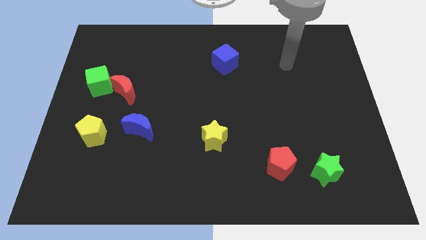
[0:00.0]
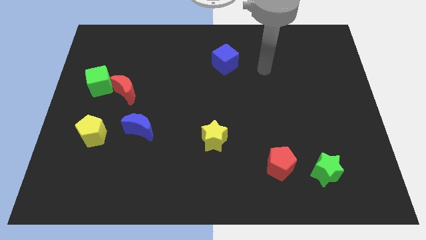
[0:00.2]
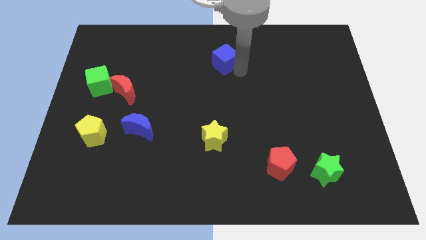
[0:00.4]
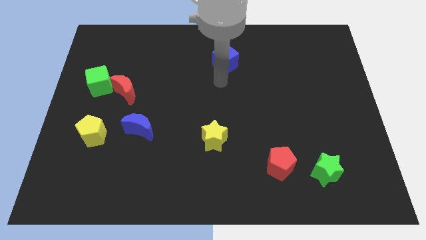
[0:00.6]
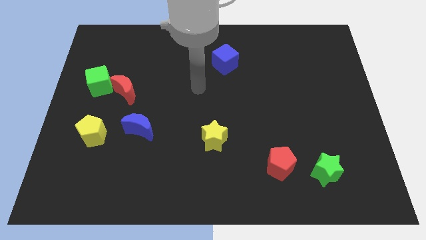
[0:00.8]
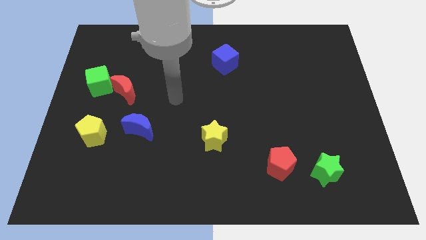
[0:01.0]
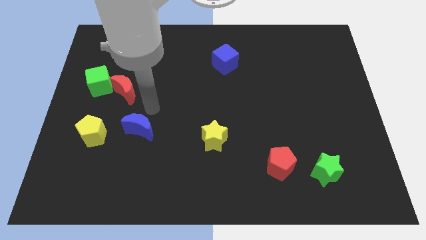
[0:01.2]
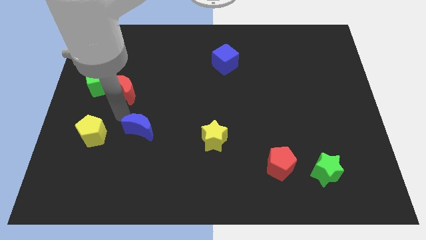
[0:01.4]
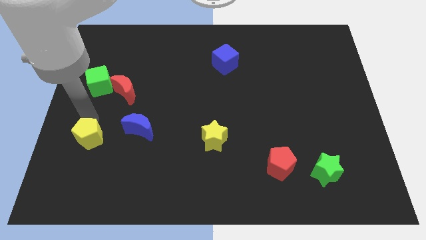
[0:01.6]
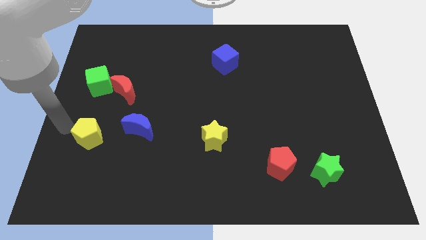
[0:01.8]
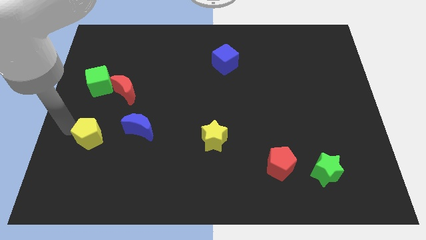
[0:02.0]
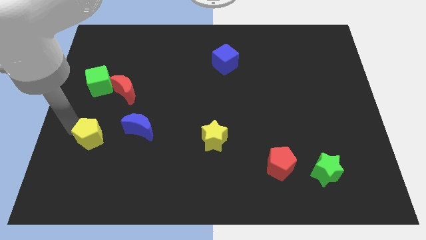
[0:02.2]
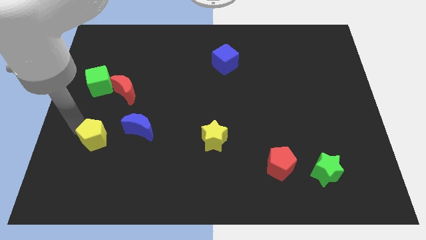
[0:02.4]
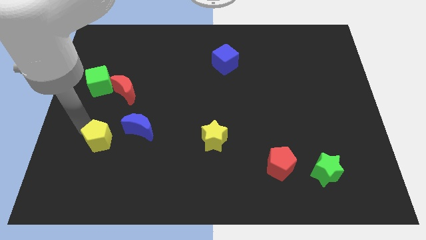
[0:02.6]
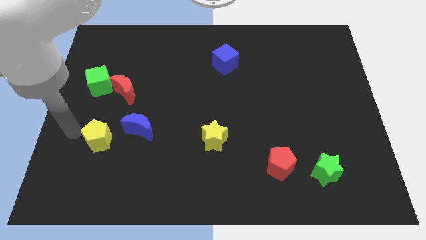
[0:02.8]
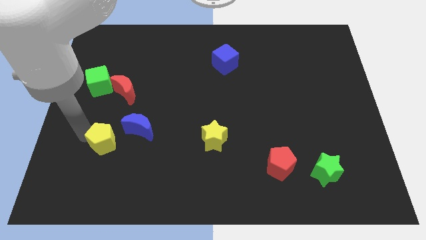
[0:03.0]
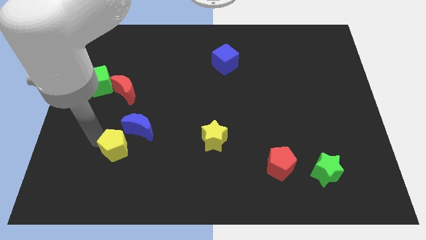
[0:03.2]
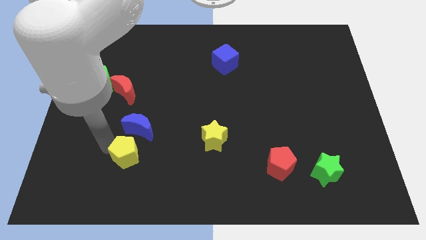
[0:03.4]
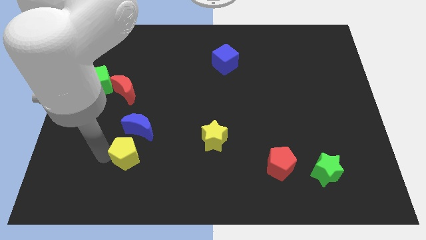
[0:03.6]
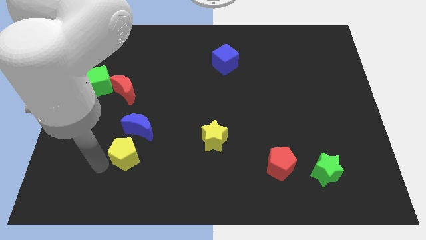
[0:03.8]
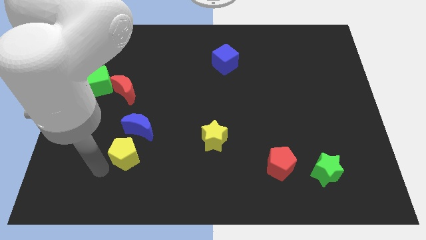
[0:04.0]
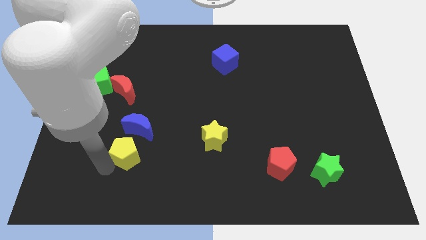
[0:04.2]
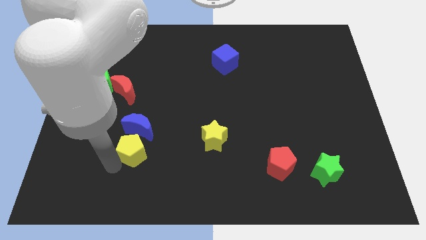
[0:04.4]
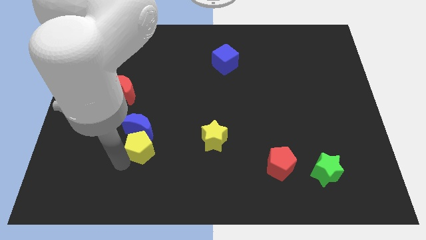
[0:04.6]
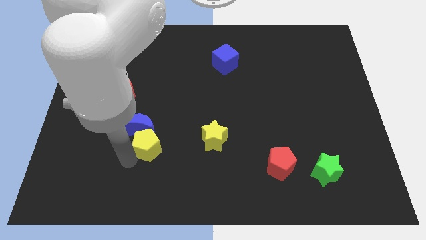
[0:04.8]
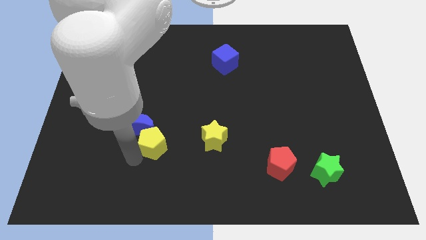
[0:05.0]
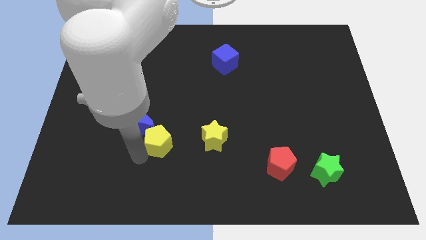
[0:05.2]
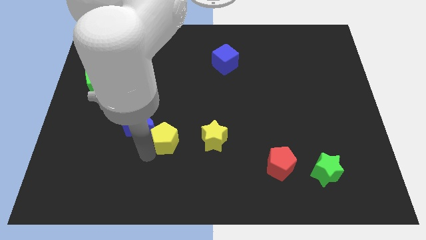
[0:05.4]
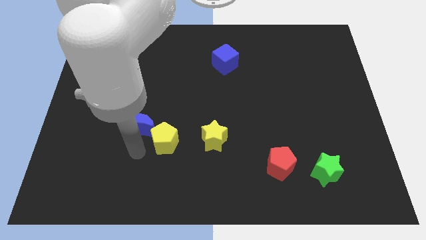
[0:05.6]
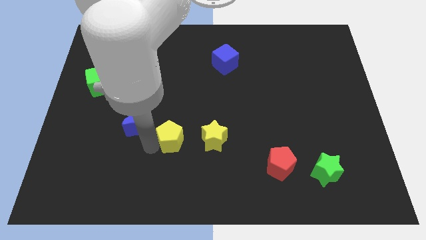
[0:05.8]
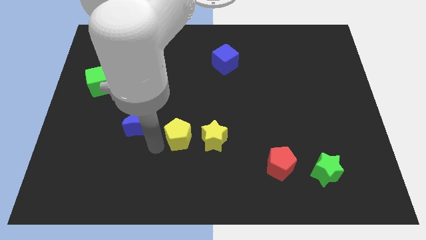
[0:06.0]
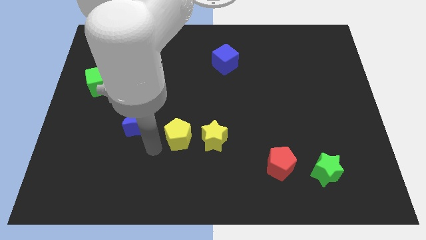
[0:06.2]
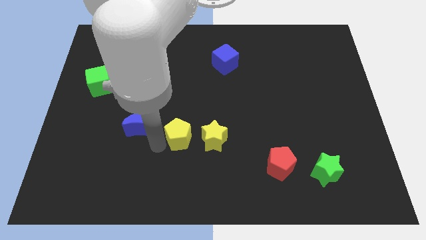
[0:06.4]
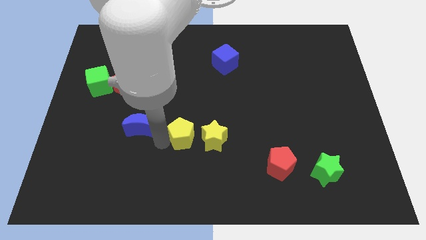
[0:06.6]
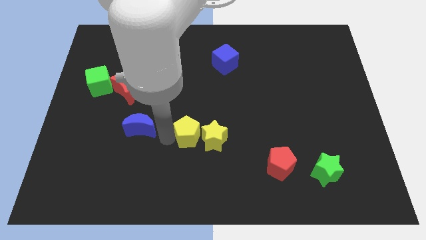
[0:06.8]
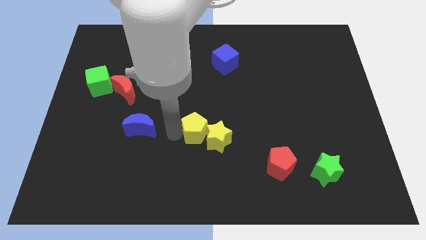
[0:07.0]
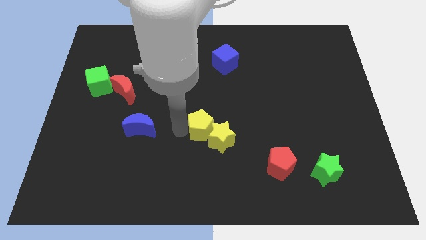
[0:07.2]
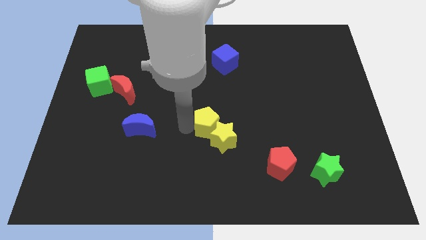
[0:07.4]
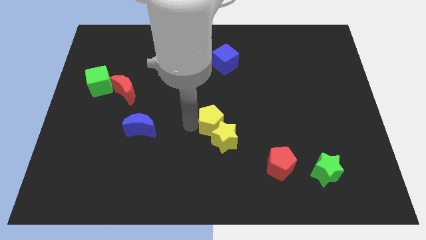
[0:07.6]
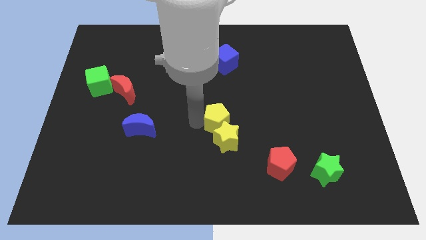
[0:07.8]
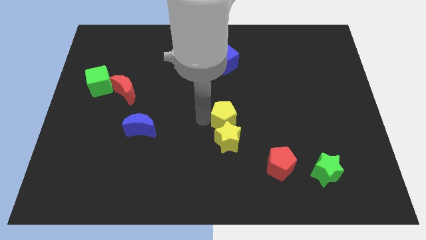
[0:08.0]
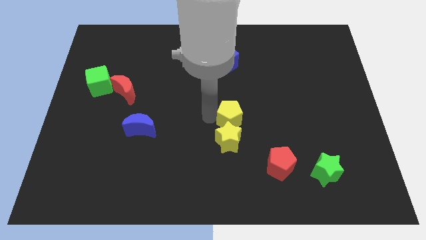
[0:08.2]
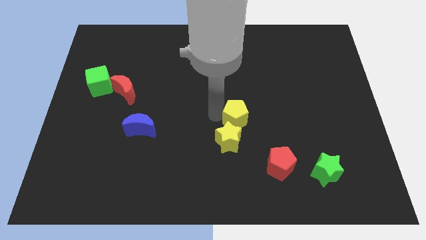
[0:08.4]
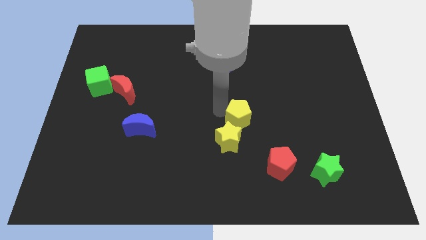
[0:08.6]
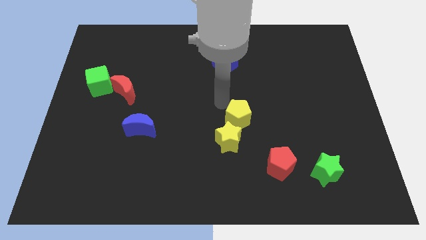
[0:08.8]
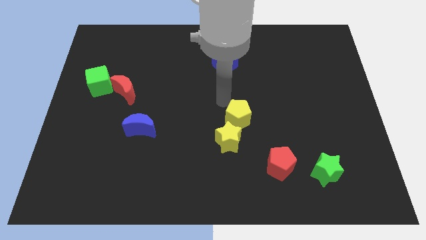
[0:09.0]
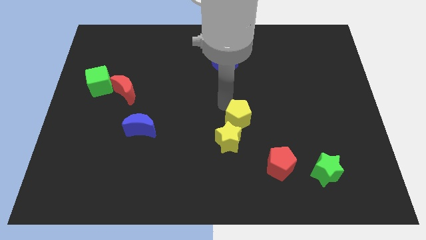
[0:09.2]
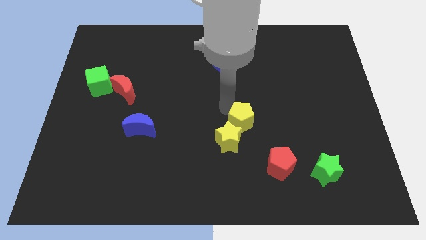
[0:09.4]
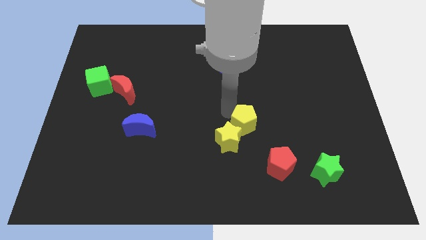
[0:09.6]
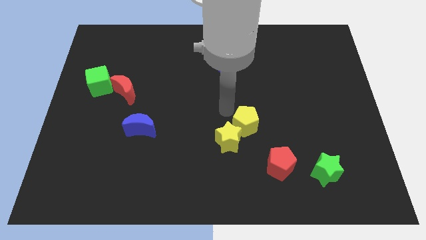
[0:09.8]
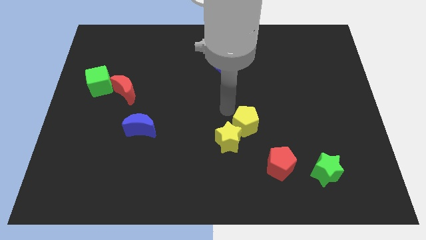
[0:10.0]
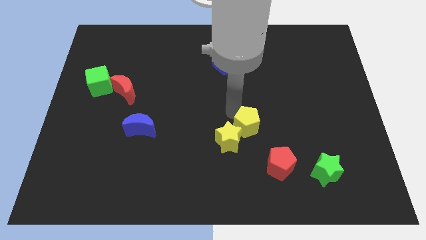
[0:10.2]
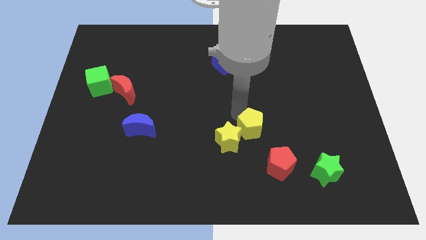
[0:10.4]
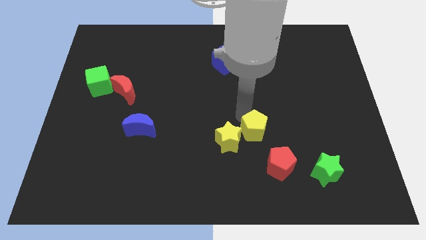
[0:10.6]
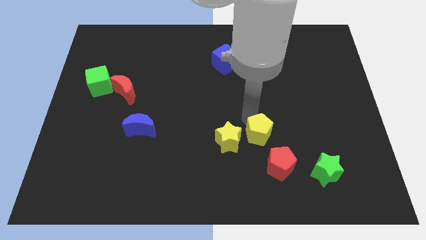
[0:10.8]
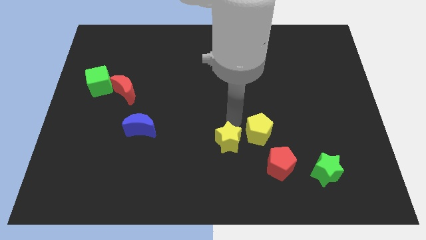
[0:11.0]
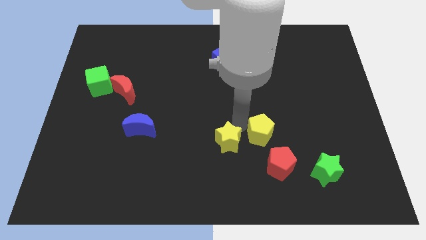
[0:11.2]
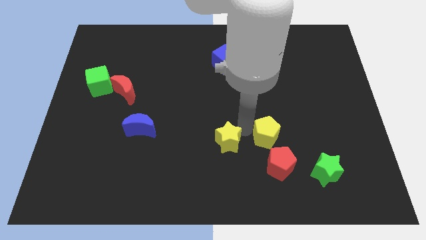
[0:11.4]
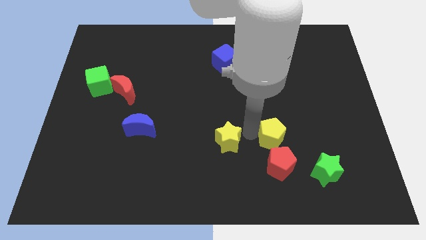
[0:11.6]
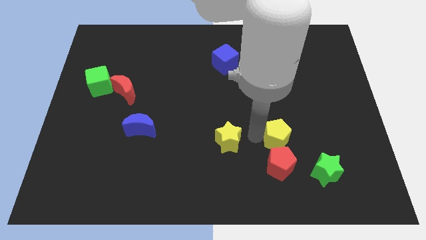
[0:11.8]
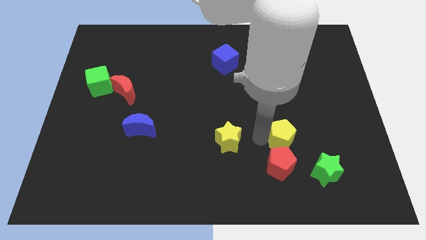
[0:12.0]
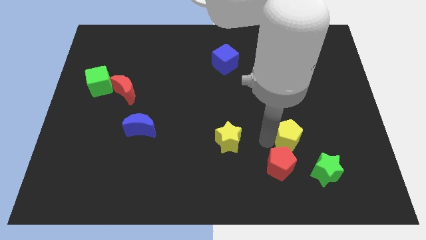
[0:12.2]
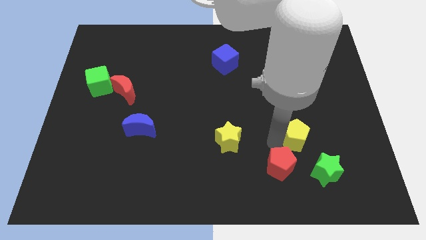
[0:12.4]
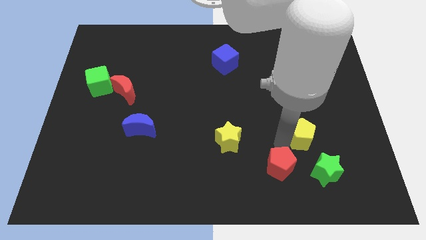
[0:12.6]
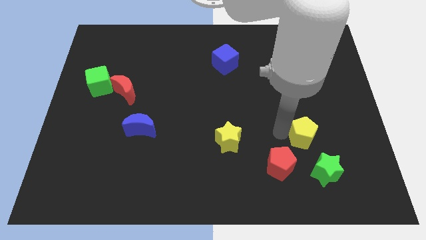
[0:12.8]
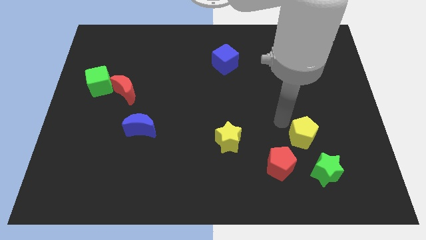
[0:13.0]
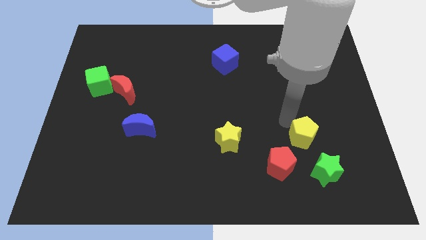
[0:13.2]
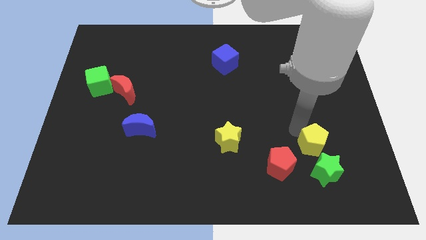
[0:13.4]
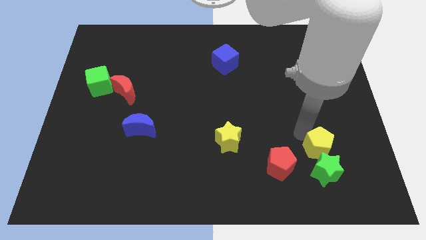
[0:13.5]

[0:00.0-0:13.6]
move the yellow pentagon just right of the red pentagon

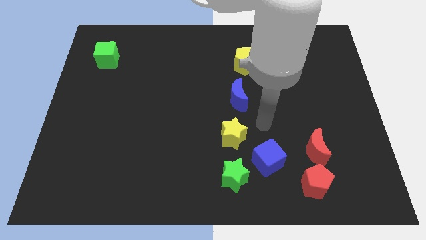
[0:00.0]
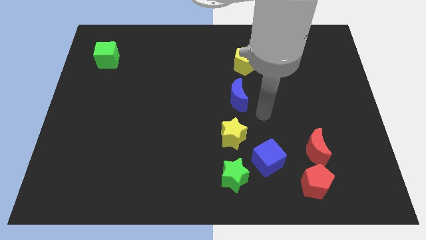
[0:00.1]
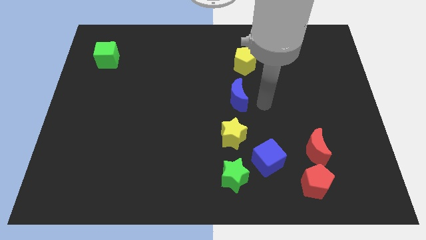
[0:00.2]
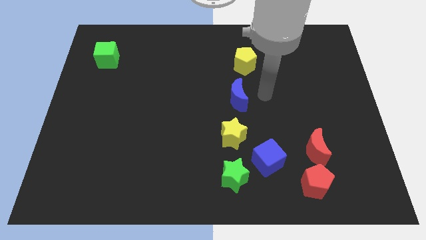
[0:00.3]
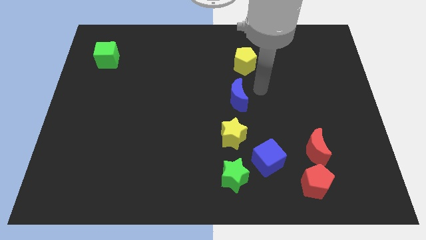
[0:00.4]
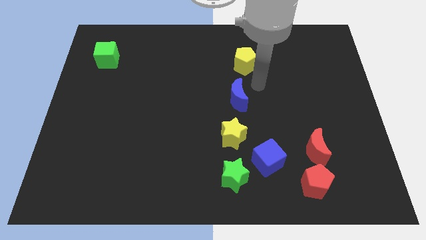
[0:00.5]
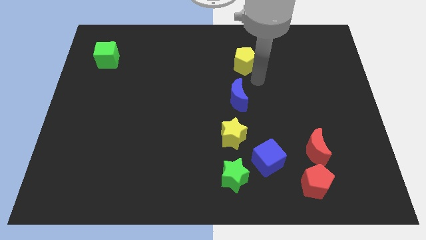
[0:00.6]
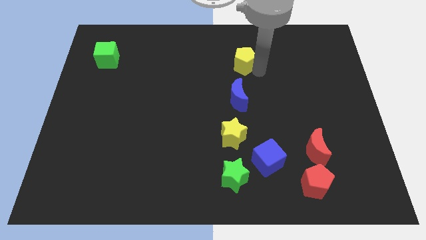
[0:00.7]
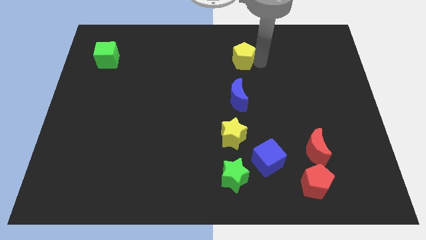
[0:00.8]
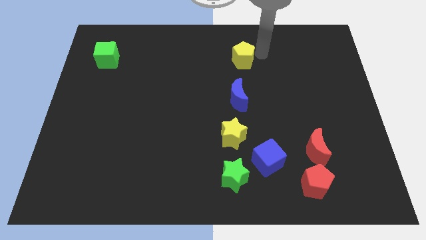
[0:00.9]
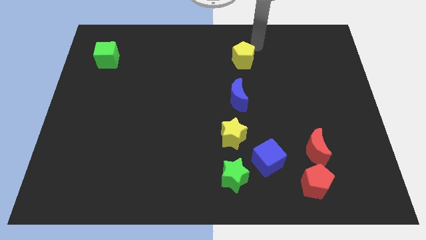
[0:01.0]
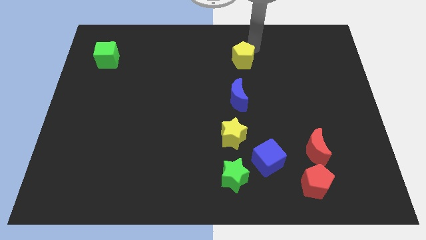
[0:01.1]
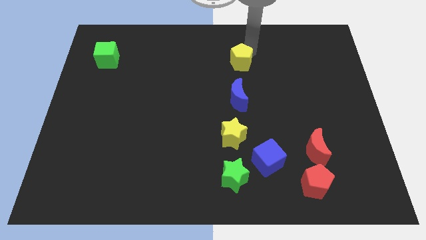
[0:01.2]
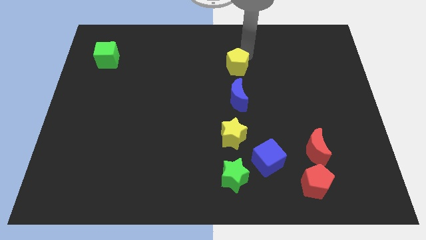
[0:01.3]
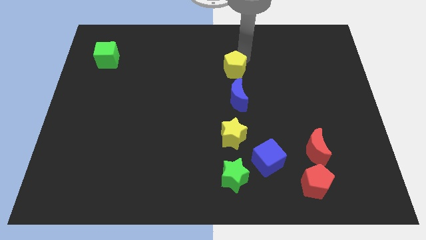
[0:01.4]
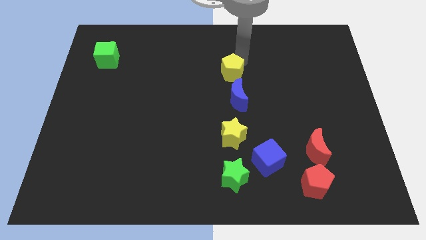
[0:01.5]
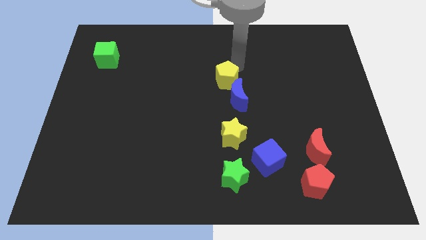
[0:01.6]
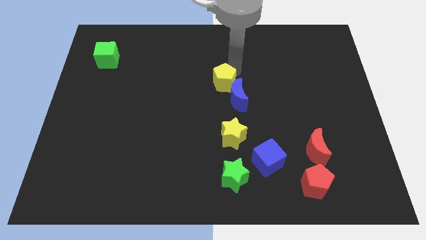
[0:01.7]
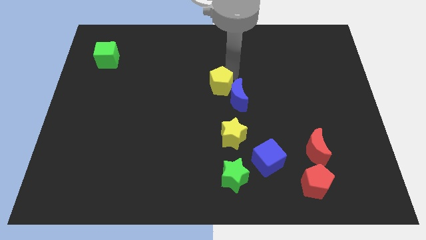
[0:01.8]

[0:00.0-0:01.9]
put the yellow pentagon to the left of the blue moon
